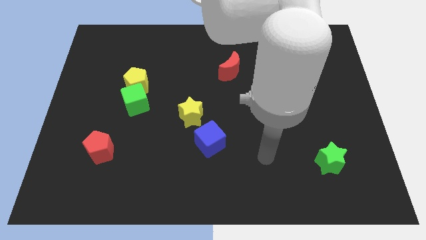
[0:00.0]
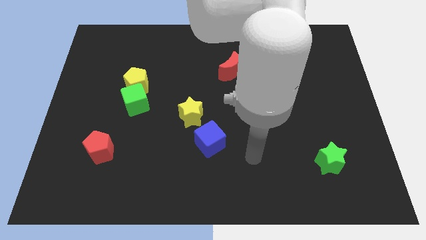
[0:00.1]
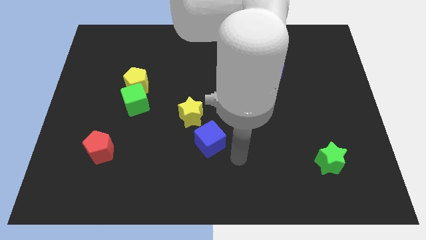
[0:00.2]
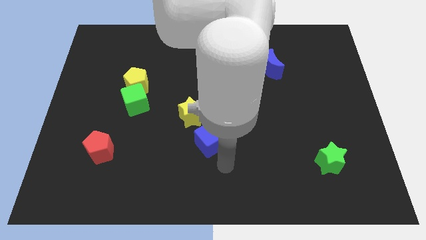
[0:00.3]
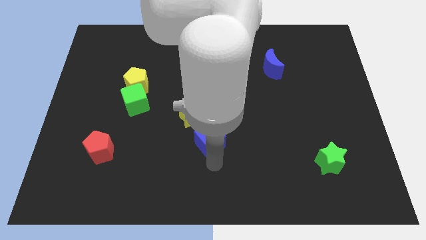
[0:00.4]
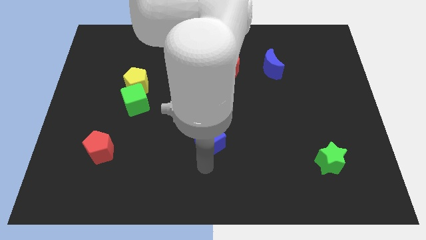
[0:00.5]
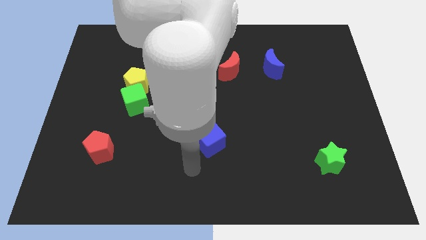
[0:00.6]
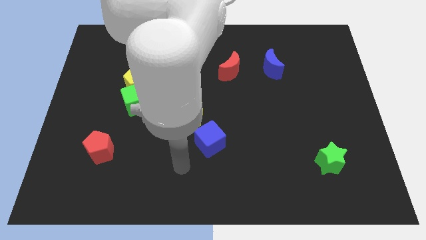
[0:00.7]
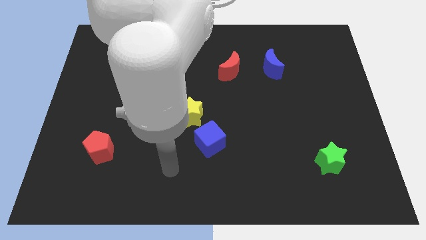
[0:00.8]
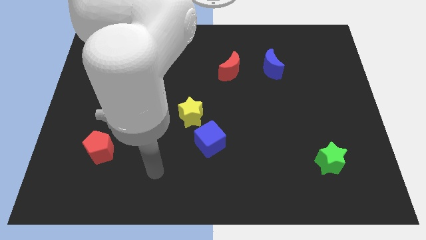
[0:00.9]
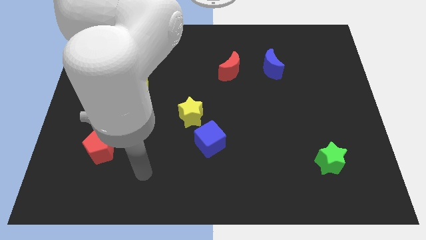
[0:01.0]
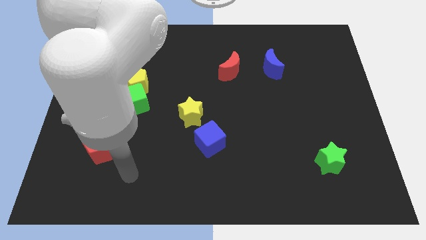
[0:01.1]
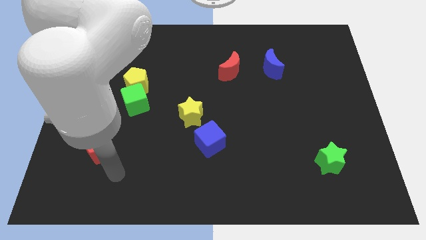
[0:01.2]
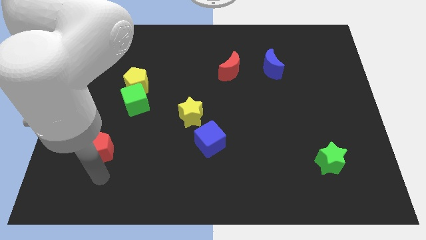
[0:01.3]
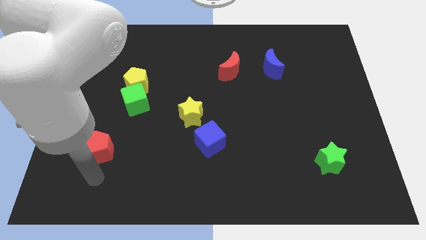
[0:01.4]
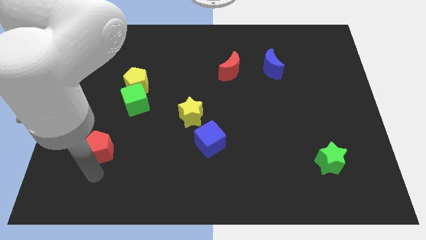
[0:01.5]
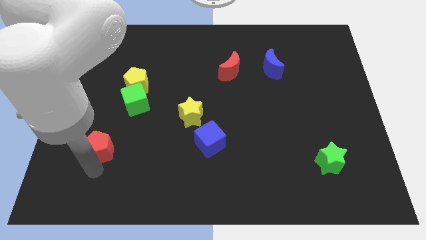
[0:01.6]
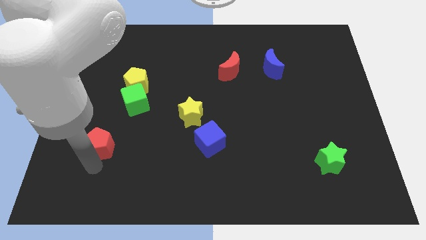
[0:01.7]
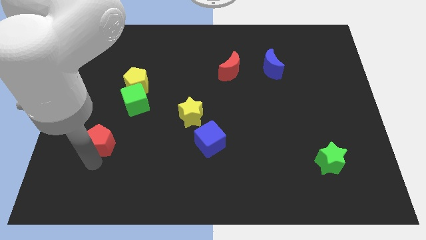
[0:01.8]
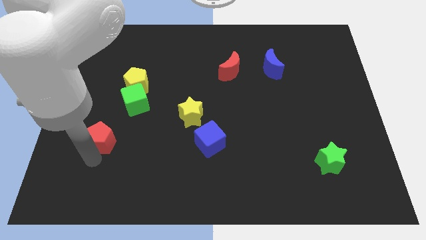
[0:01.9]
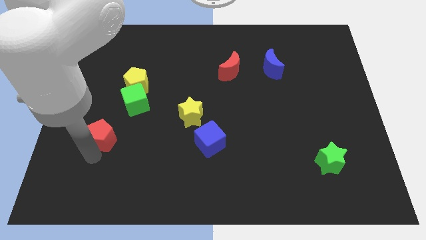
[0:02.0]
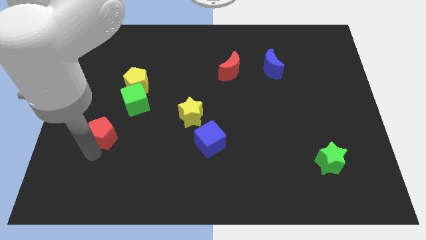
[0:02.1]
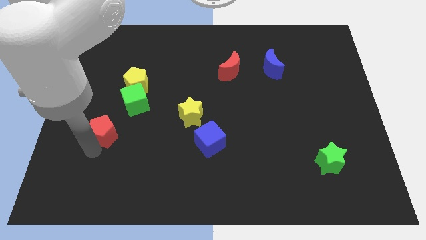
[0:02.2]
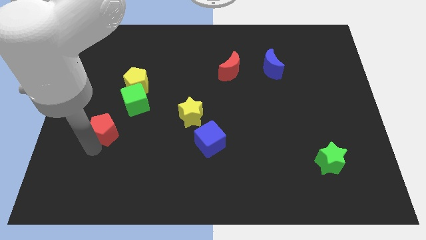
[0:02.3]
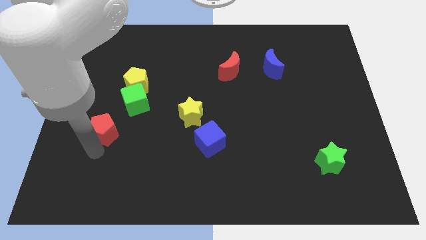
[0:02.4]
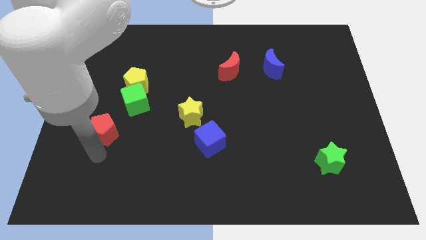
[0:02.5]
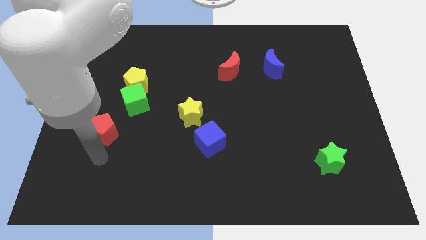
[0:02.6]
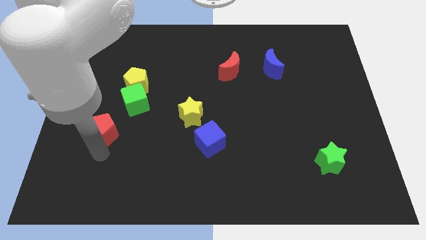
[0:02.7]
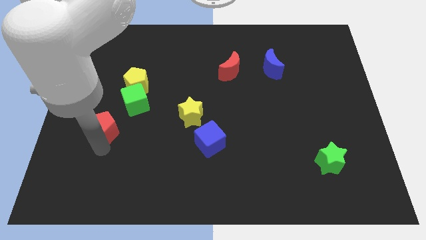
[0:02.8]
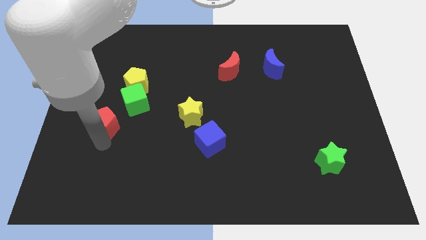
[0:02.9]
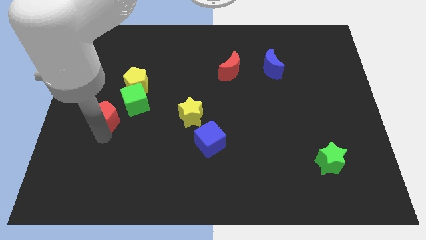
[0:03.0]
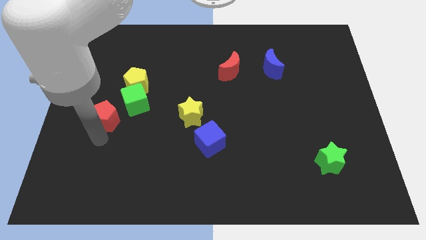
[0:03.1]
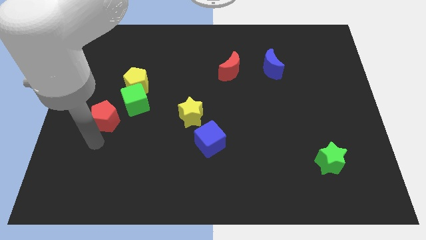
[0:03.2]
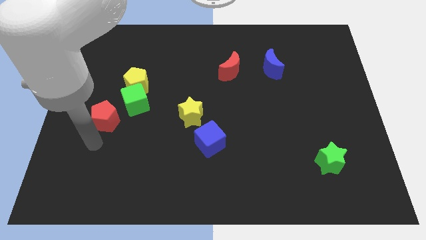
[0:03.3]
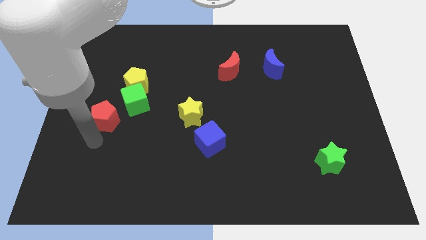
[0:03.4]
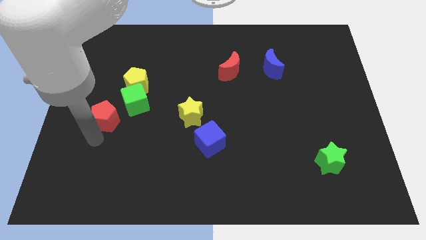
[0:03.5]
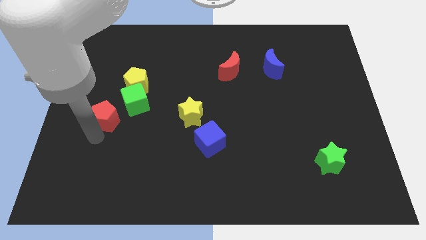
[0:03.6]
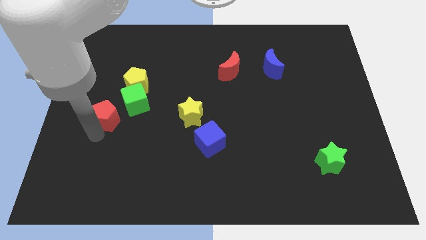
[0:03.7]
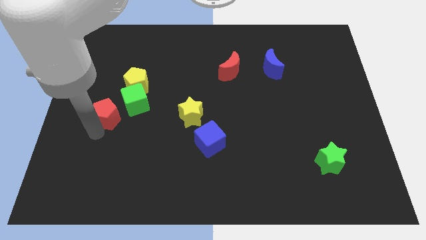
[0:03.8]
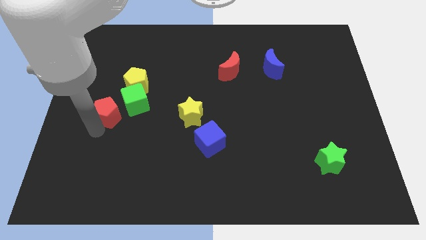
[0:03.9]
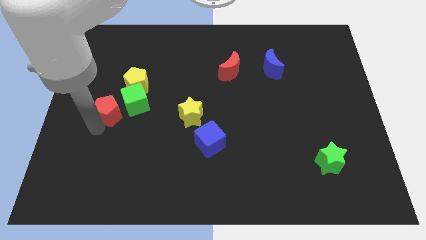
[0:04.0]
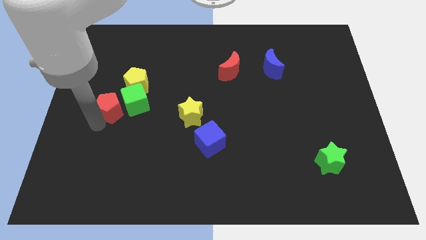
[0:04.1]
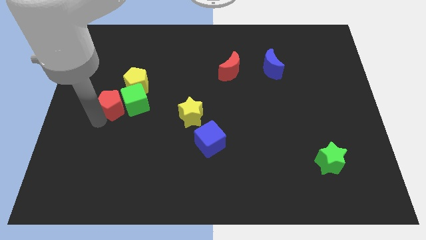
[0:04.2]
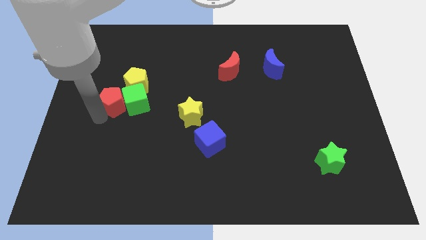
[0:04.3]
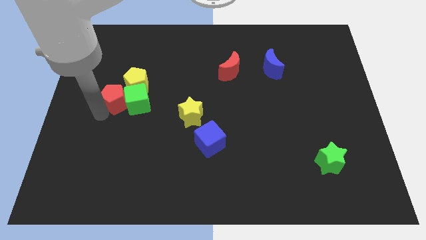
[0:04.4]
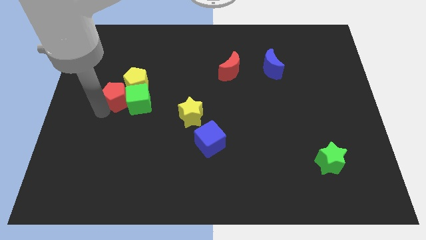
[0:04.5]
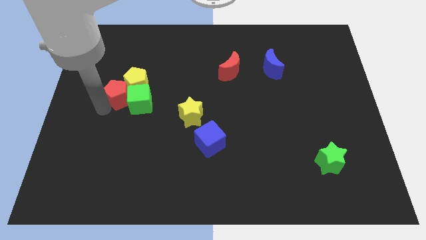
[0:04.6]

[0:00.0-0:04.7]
push the red pentagon to the yellow pentagon

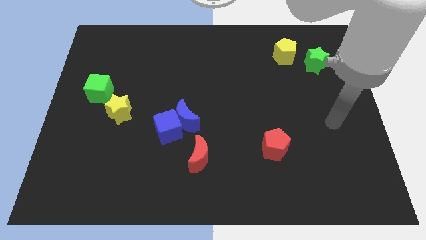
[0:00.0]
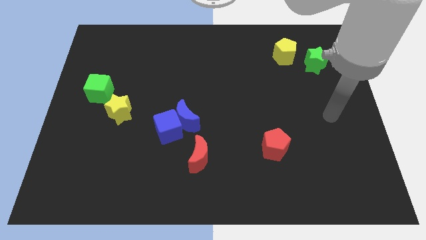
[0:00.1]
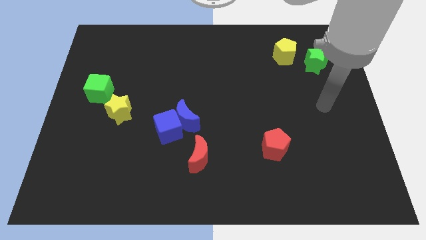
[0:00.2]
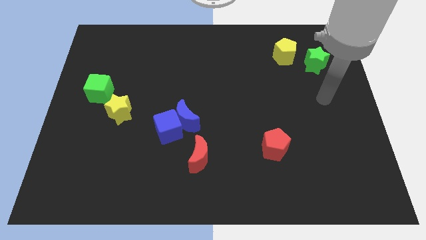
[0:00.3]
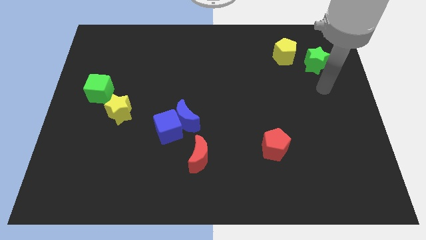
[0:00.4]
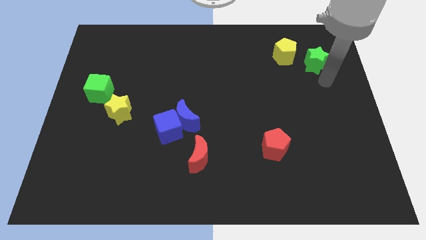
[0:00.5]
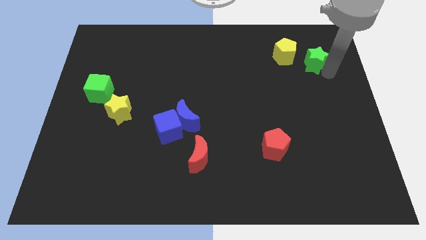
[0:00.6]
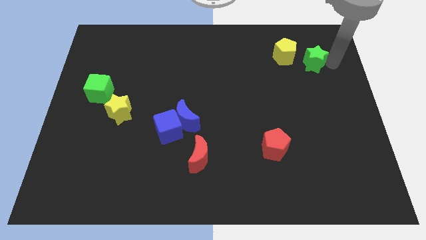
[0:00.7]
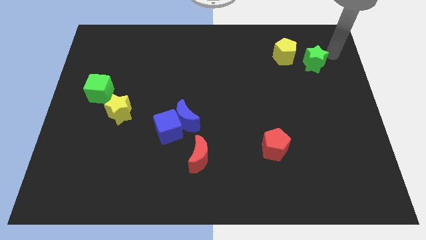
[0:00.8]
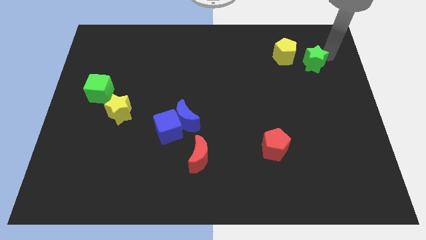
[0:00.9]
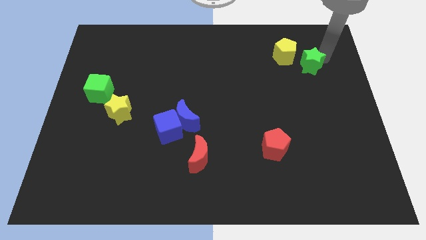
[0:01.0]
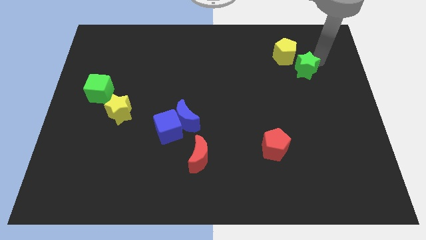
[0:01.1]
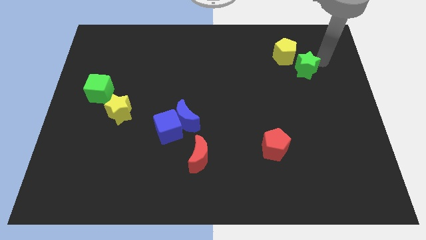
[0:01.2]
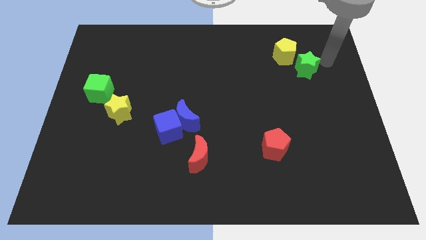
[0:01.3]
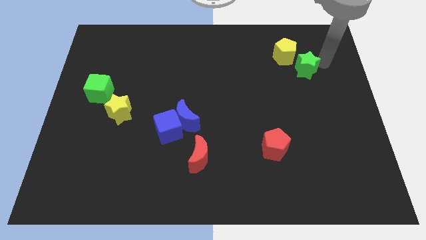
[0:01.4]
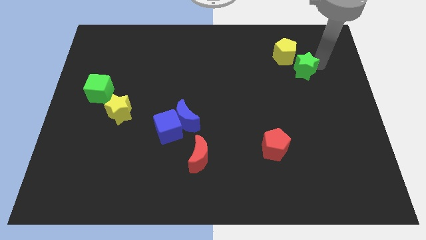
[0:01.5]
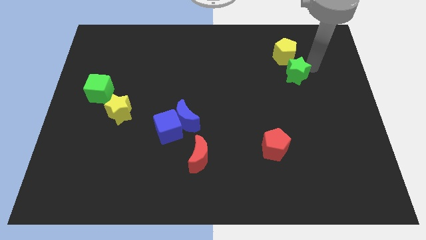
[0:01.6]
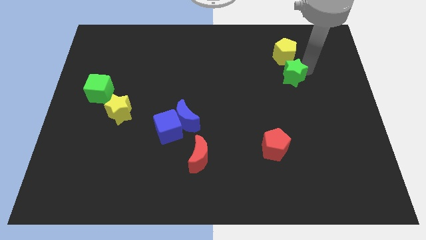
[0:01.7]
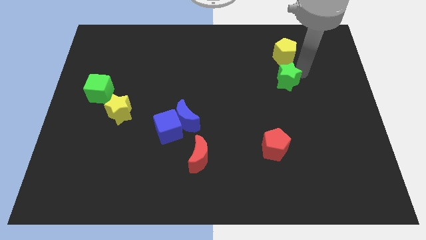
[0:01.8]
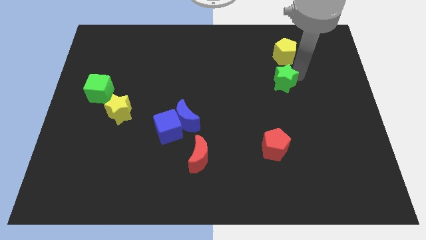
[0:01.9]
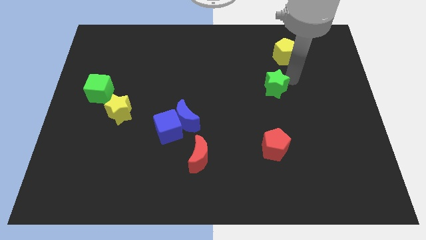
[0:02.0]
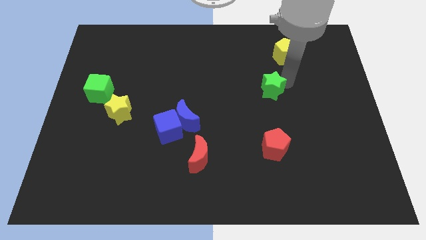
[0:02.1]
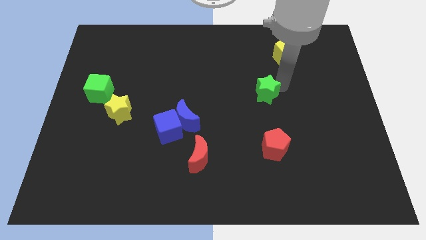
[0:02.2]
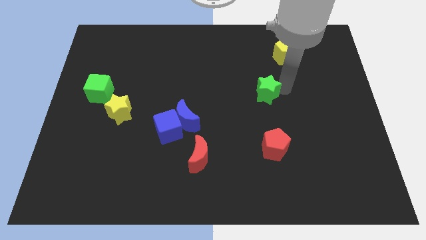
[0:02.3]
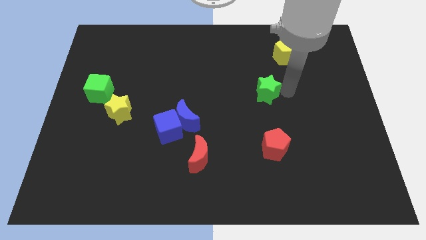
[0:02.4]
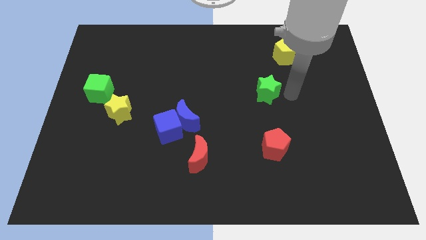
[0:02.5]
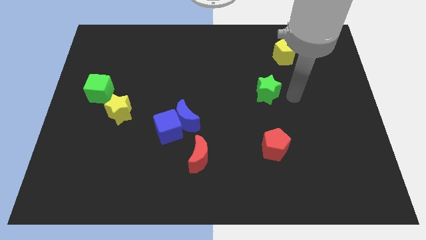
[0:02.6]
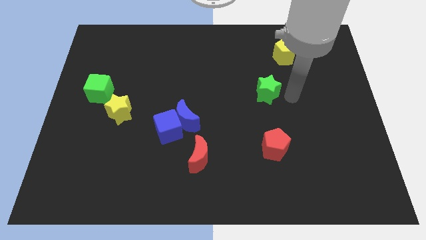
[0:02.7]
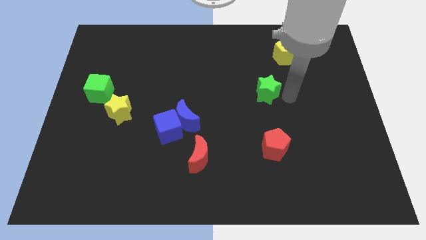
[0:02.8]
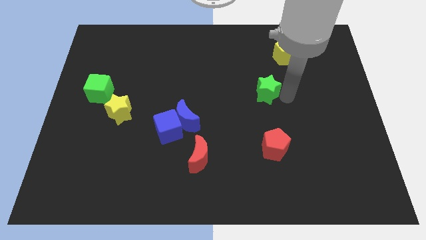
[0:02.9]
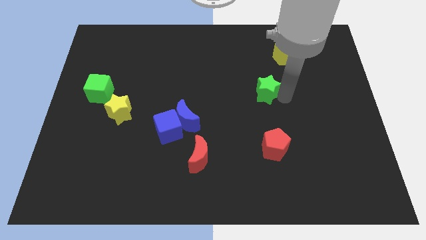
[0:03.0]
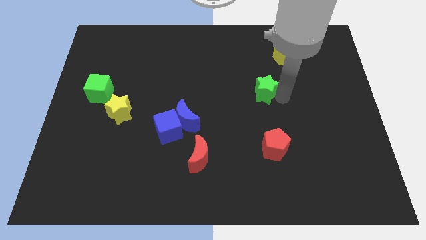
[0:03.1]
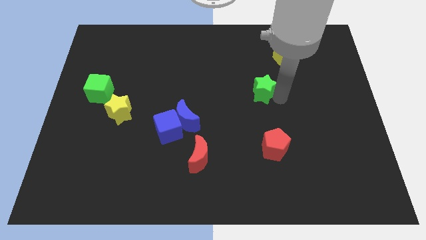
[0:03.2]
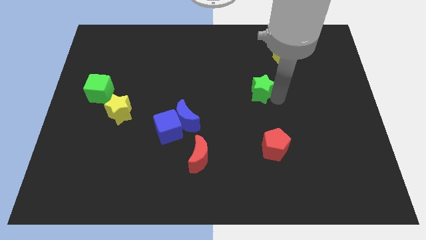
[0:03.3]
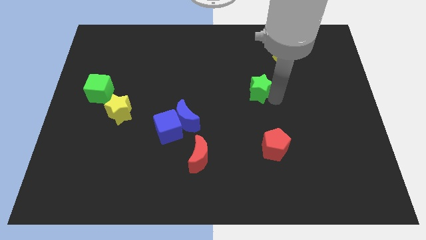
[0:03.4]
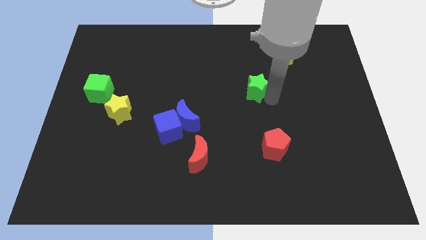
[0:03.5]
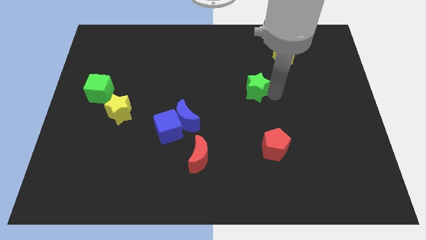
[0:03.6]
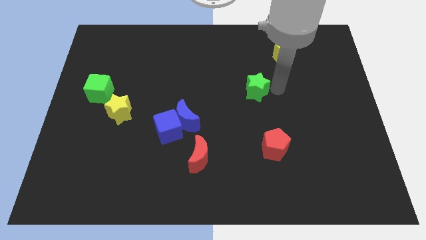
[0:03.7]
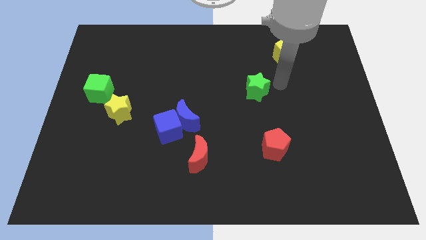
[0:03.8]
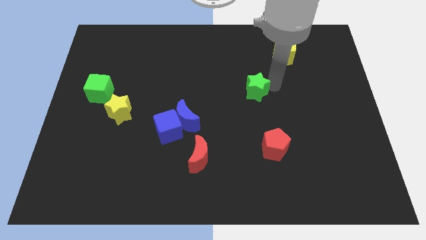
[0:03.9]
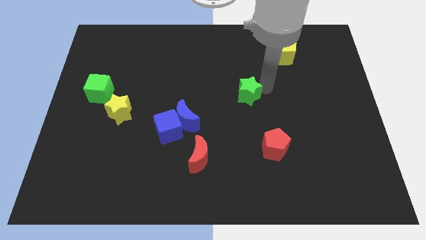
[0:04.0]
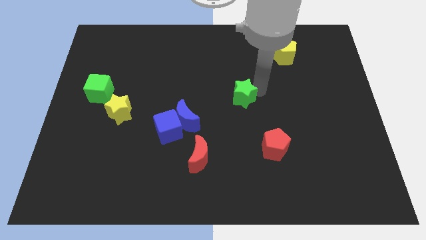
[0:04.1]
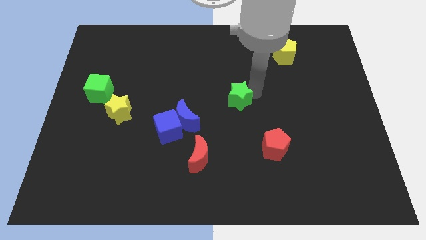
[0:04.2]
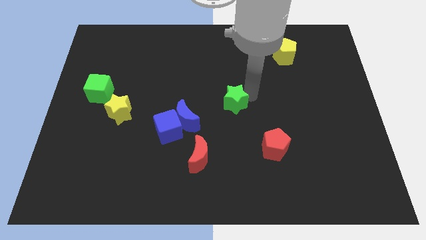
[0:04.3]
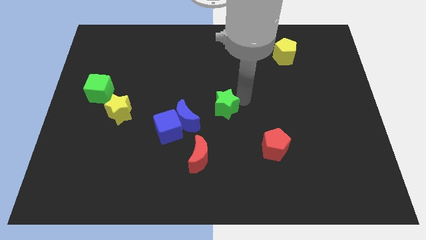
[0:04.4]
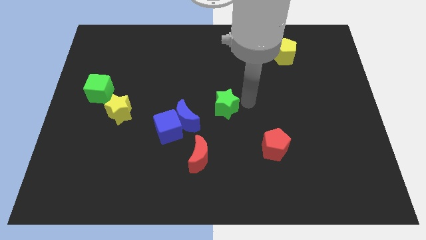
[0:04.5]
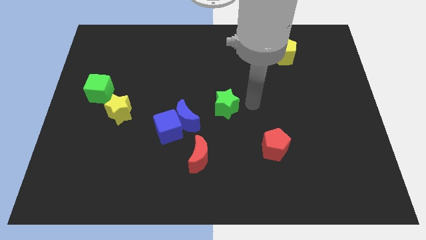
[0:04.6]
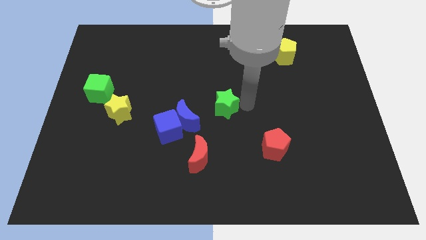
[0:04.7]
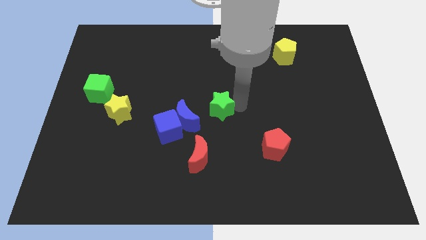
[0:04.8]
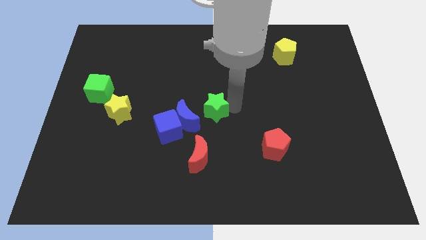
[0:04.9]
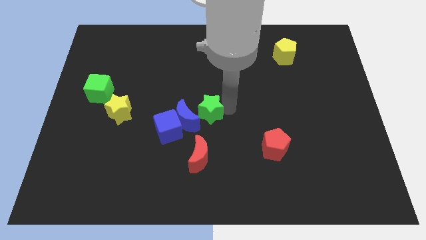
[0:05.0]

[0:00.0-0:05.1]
put the green star to the blue moon
